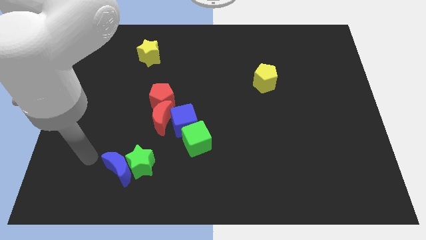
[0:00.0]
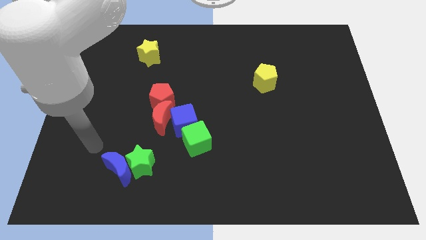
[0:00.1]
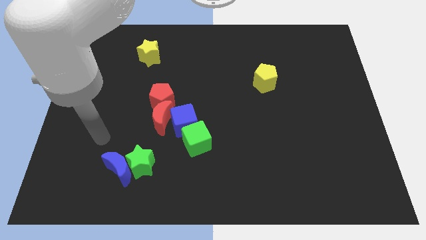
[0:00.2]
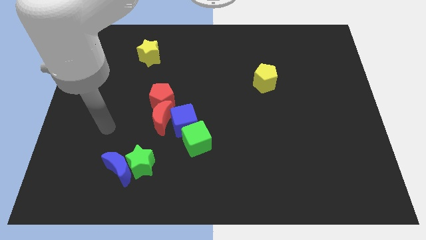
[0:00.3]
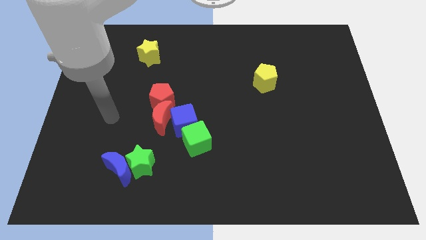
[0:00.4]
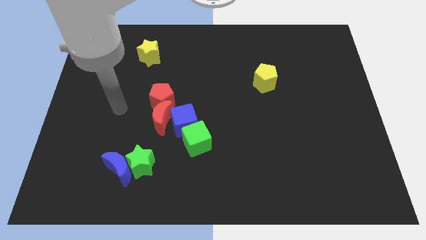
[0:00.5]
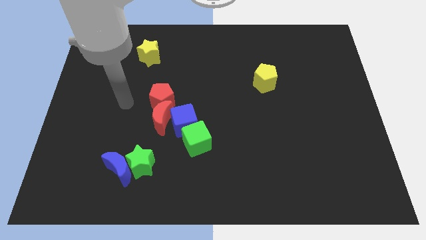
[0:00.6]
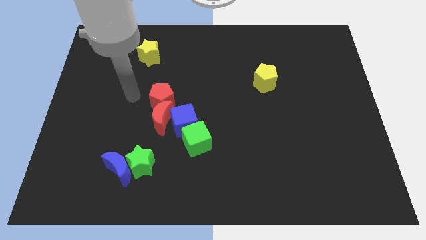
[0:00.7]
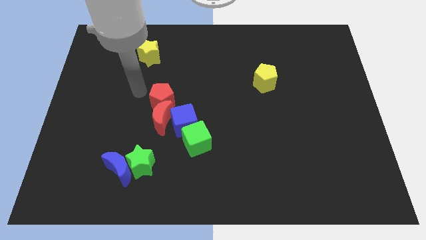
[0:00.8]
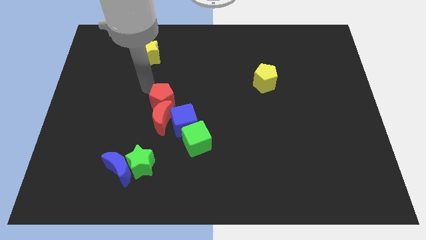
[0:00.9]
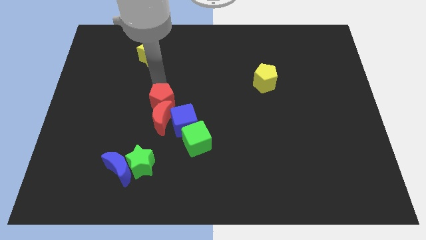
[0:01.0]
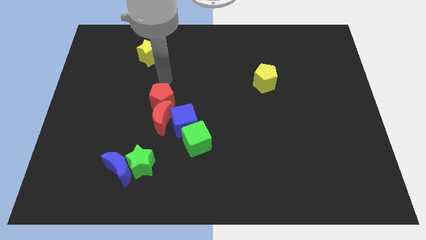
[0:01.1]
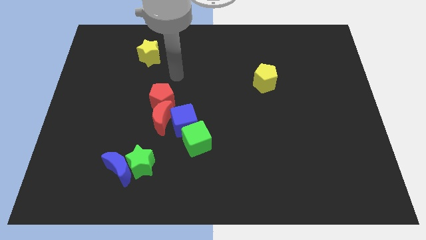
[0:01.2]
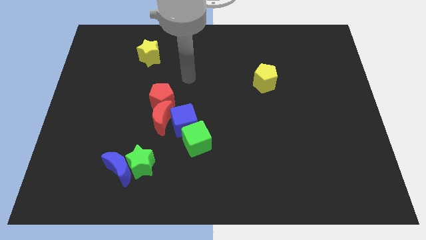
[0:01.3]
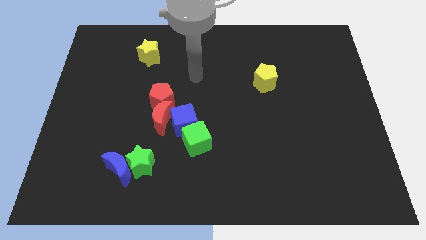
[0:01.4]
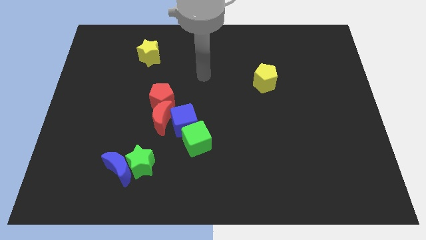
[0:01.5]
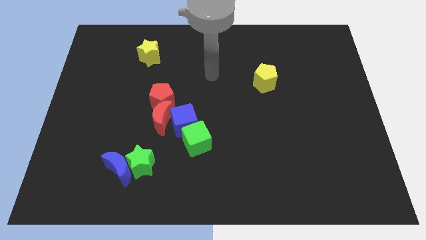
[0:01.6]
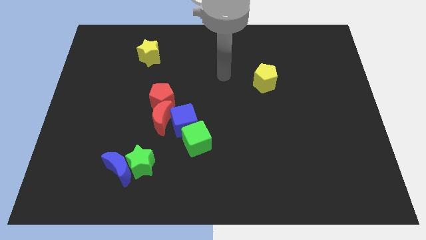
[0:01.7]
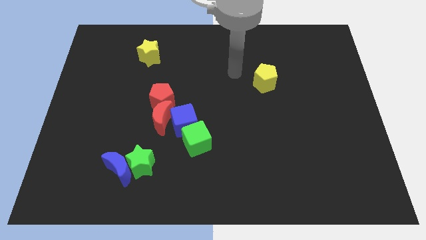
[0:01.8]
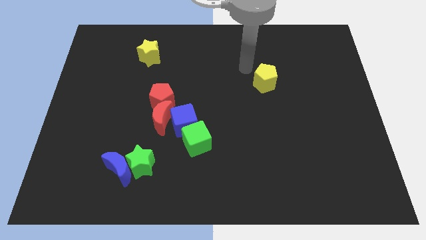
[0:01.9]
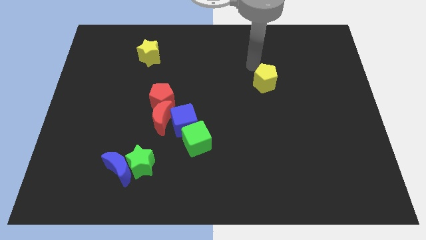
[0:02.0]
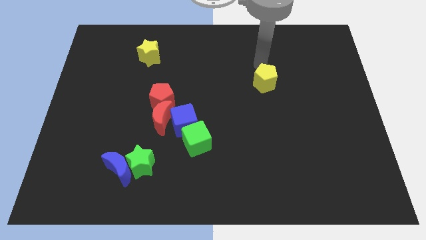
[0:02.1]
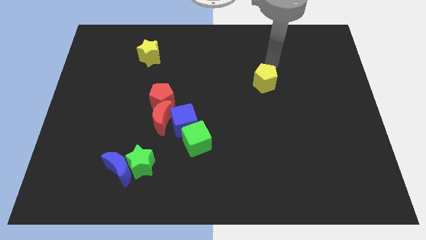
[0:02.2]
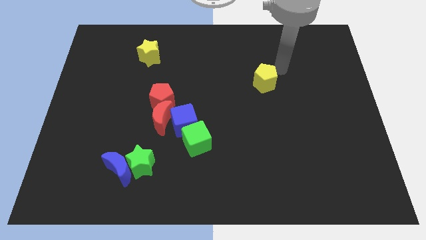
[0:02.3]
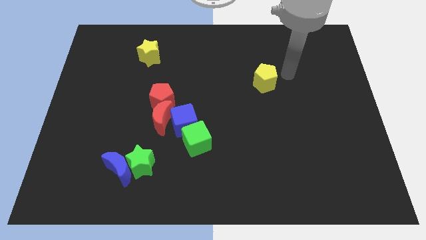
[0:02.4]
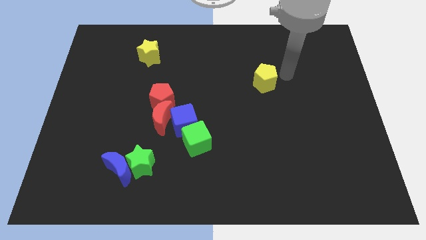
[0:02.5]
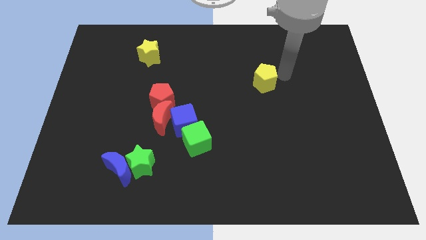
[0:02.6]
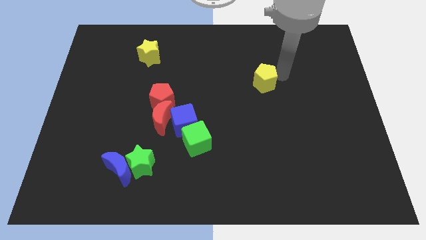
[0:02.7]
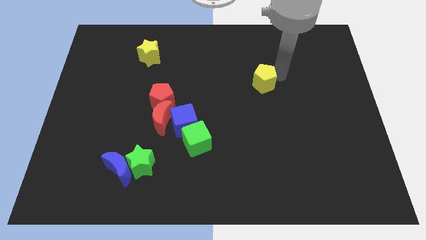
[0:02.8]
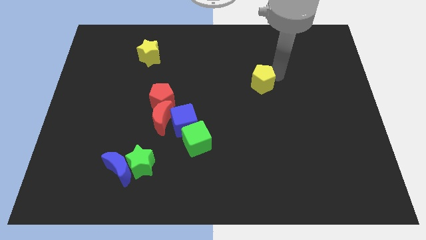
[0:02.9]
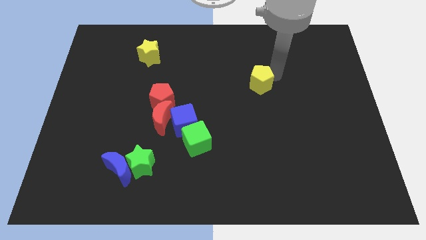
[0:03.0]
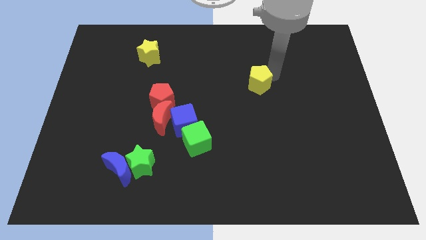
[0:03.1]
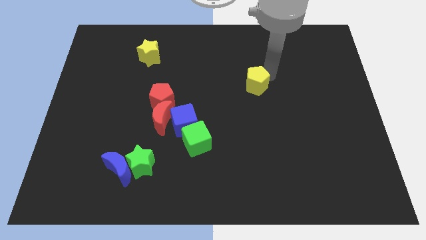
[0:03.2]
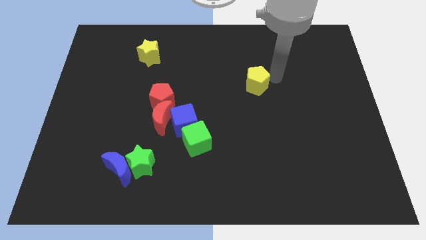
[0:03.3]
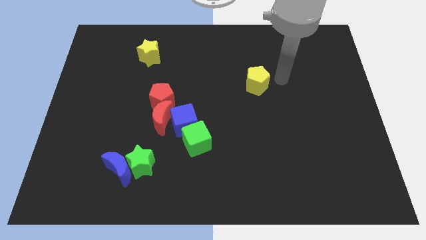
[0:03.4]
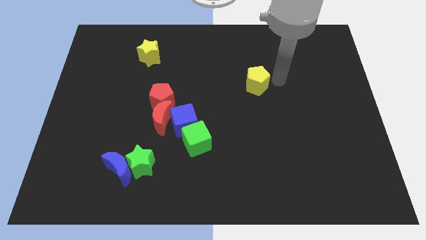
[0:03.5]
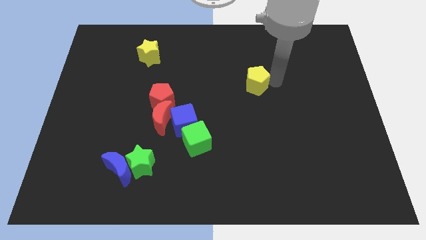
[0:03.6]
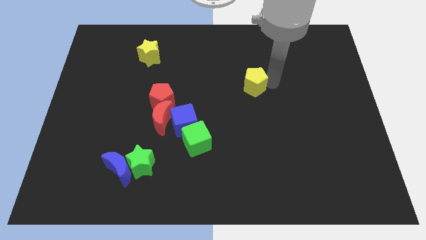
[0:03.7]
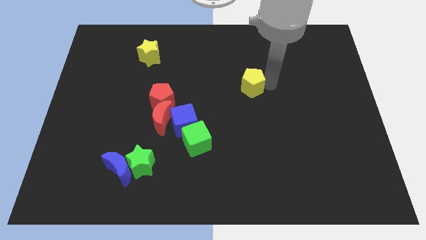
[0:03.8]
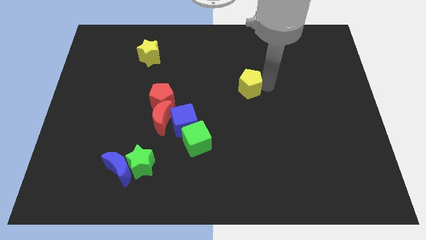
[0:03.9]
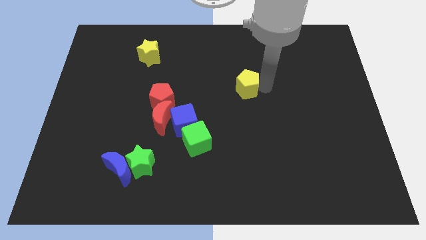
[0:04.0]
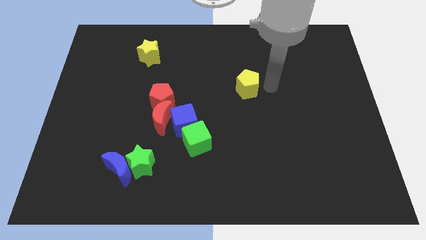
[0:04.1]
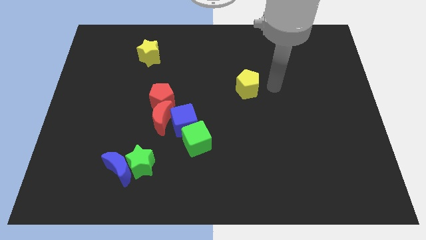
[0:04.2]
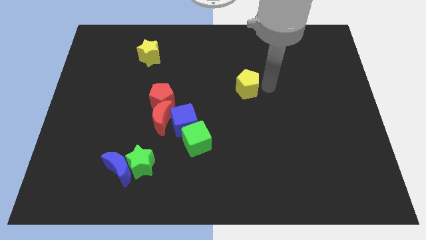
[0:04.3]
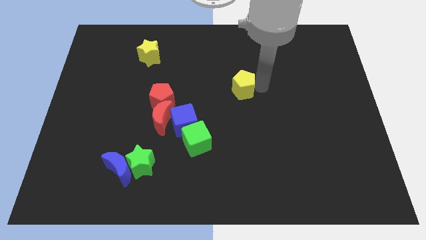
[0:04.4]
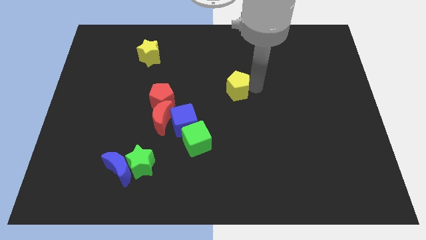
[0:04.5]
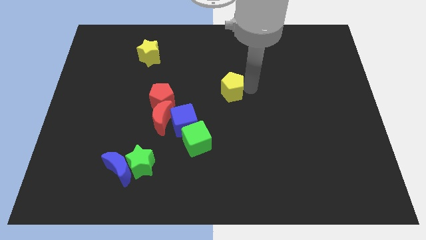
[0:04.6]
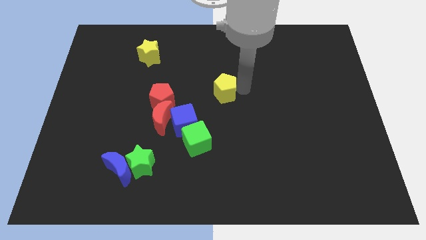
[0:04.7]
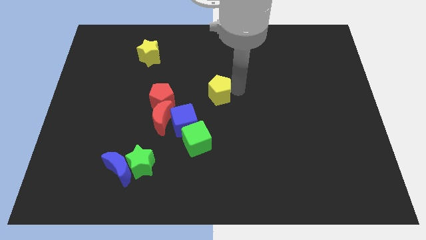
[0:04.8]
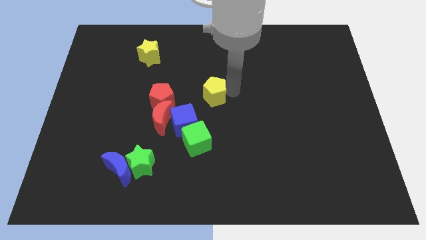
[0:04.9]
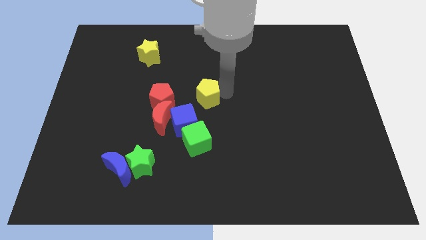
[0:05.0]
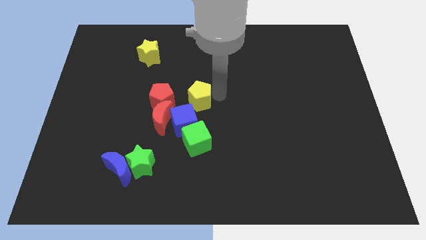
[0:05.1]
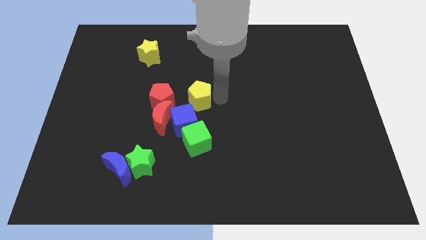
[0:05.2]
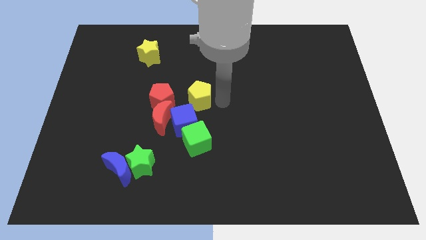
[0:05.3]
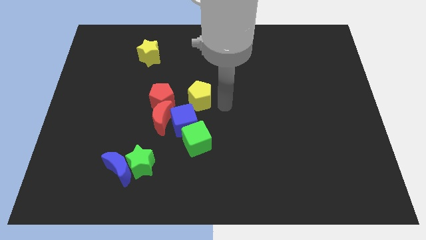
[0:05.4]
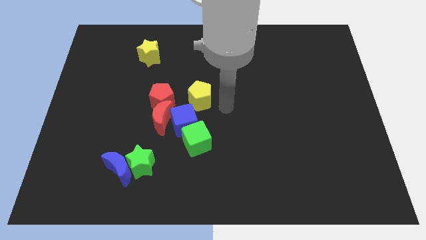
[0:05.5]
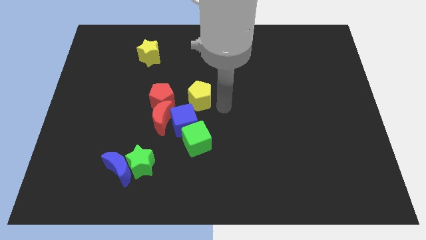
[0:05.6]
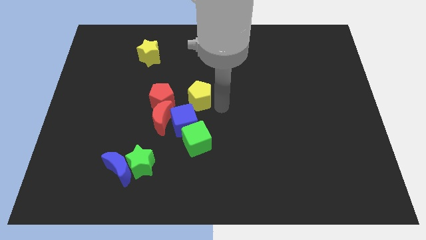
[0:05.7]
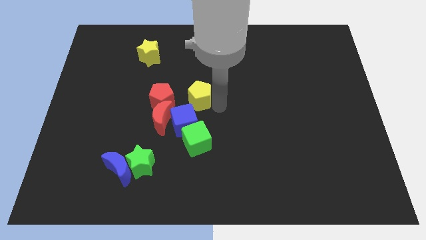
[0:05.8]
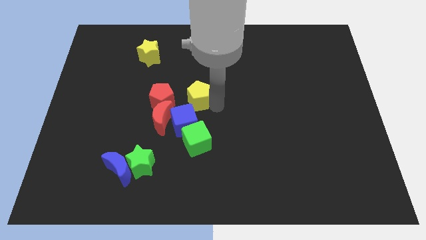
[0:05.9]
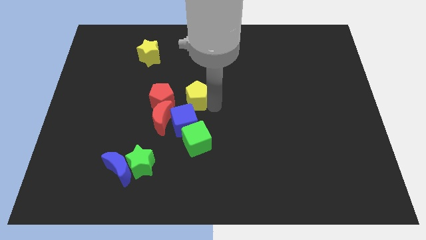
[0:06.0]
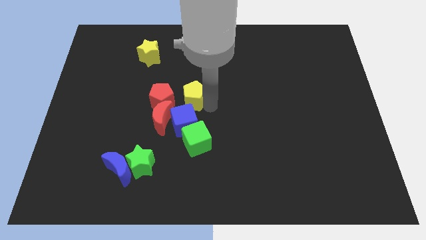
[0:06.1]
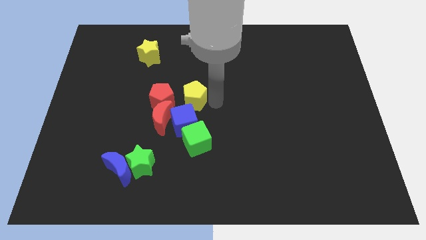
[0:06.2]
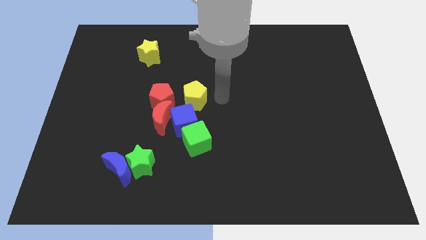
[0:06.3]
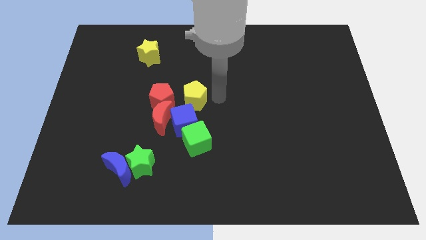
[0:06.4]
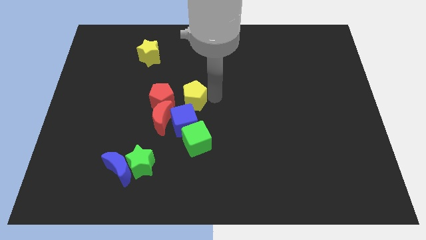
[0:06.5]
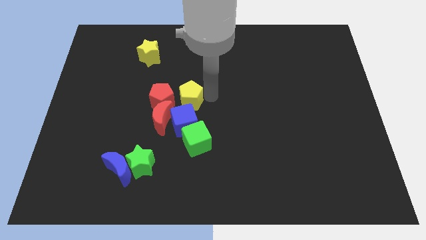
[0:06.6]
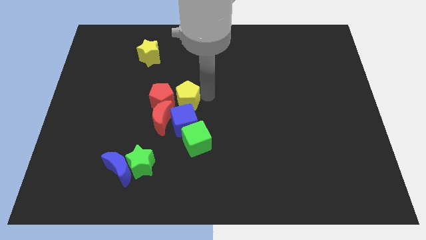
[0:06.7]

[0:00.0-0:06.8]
slide the yellow pentagon to the red pentagon

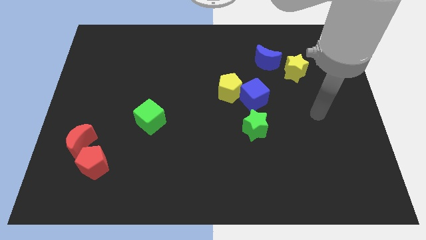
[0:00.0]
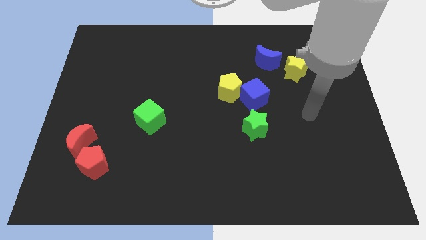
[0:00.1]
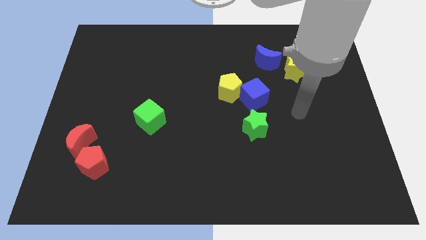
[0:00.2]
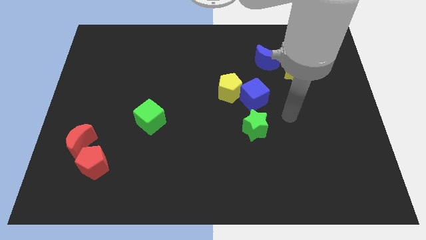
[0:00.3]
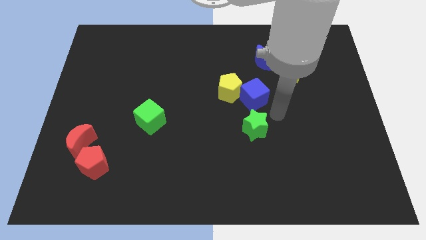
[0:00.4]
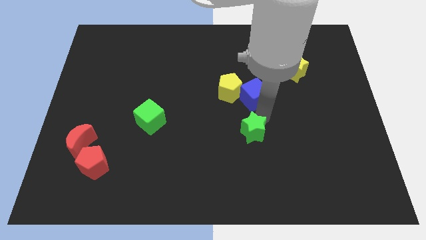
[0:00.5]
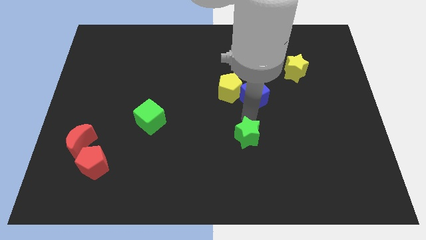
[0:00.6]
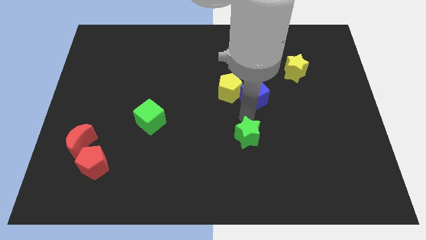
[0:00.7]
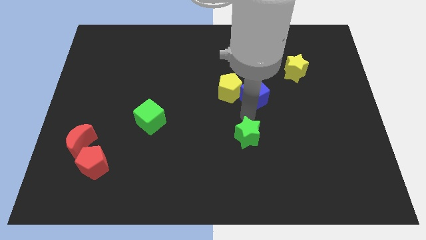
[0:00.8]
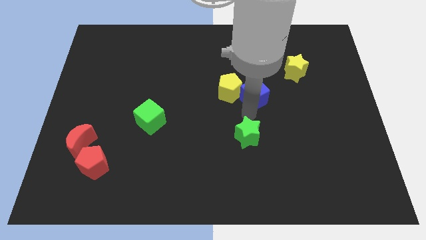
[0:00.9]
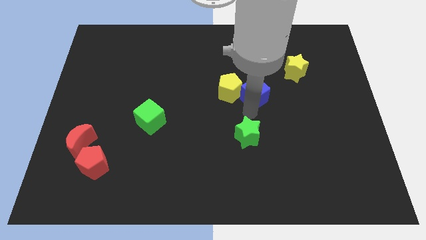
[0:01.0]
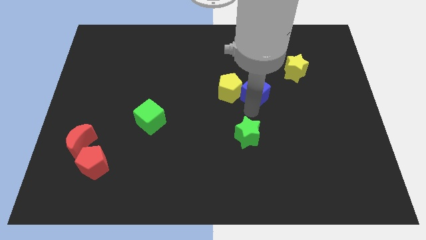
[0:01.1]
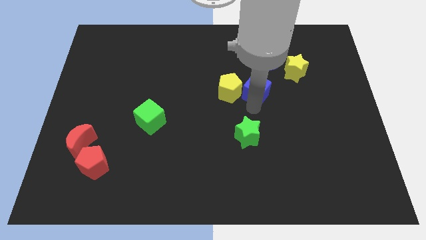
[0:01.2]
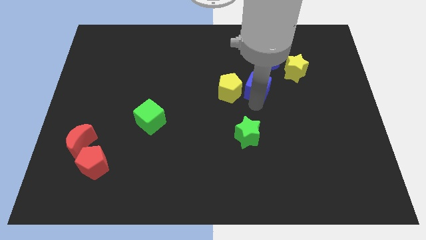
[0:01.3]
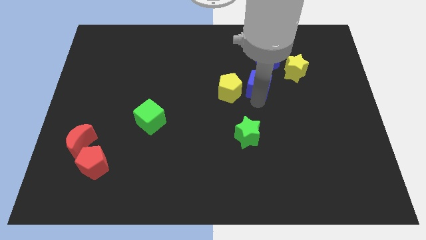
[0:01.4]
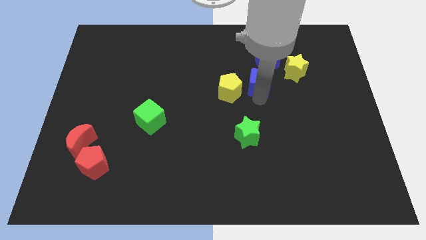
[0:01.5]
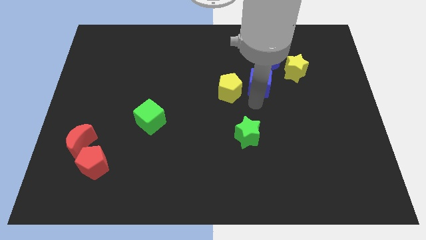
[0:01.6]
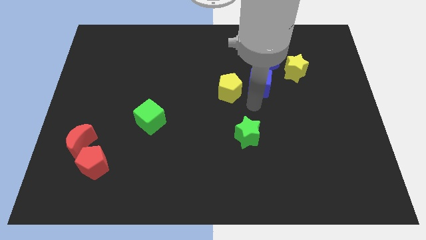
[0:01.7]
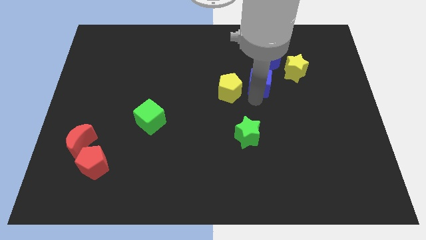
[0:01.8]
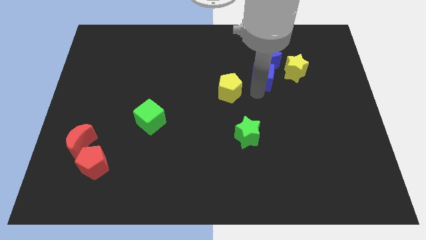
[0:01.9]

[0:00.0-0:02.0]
push the blue cube to the blue moon
